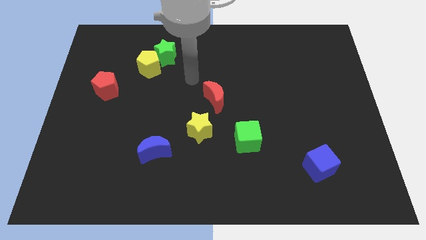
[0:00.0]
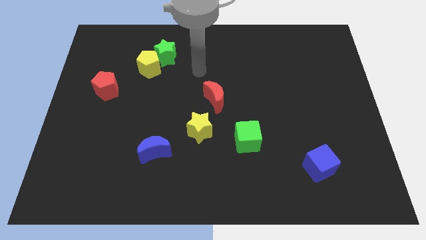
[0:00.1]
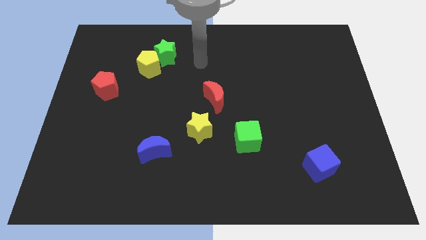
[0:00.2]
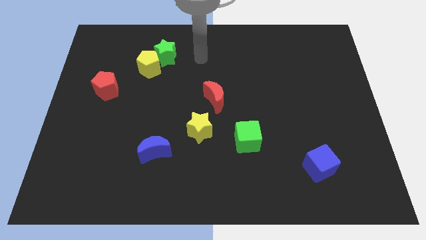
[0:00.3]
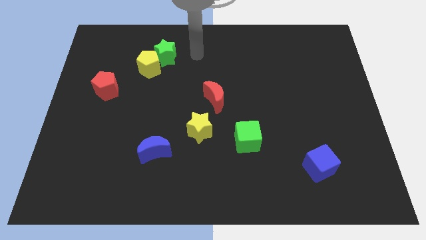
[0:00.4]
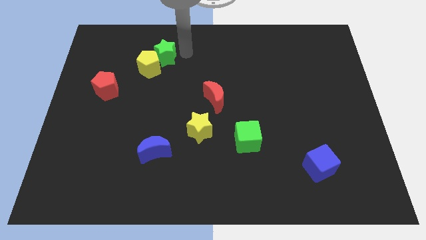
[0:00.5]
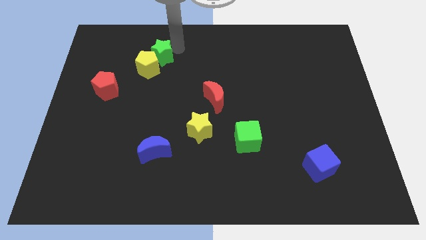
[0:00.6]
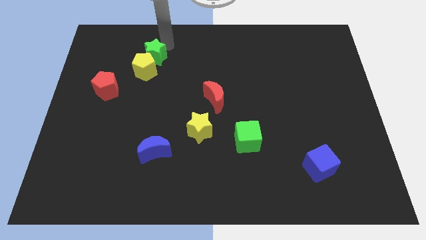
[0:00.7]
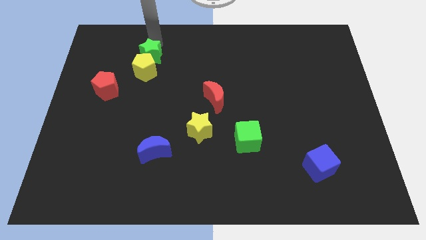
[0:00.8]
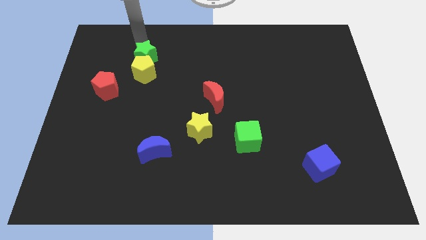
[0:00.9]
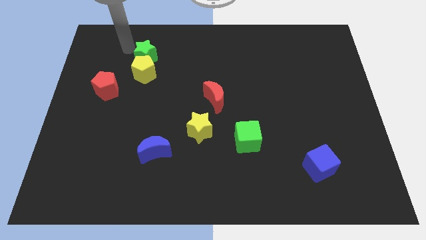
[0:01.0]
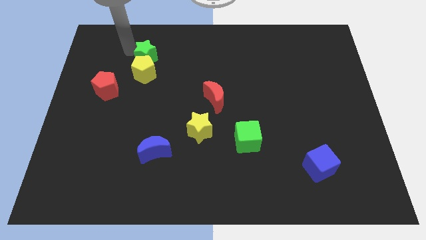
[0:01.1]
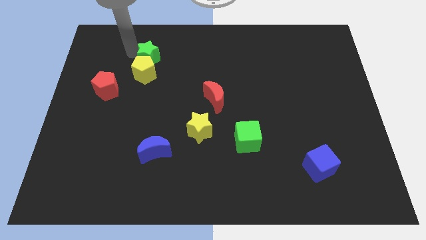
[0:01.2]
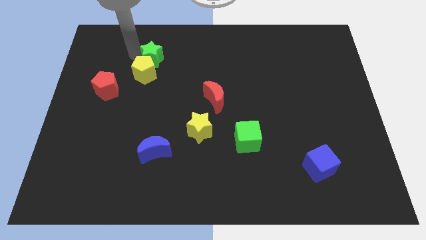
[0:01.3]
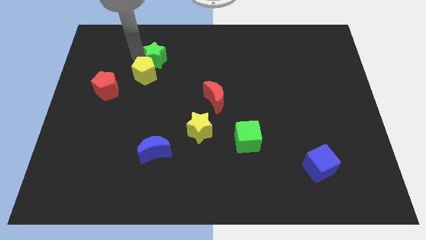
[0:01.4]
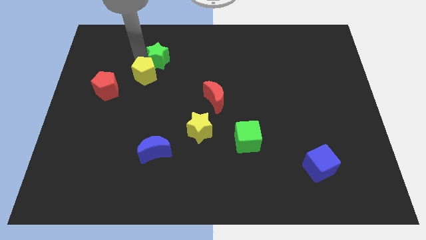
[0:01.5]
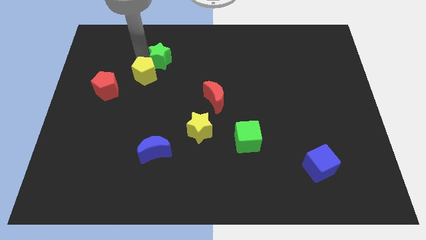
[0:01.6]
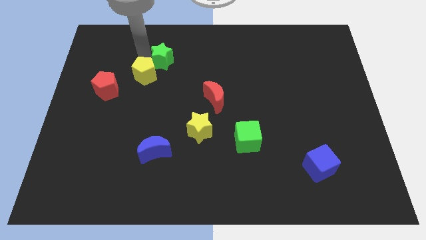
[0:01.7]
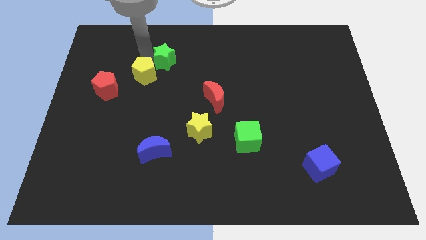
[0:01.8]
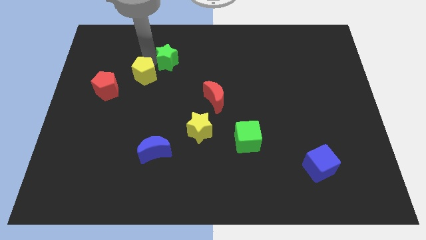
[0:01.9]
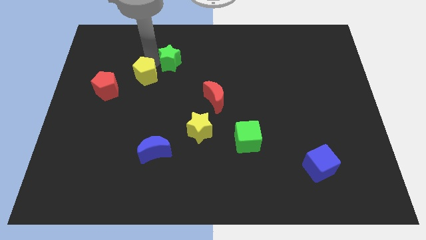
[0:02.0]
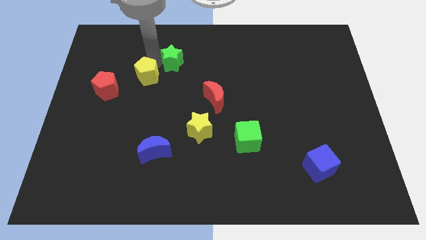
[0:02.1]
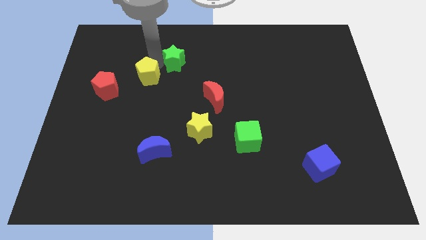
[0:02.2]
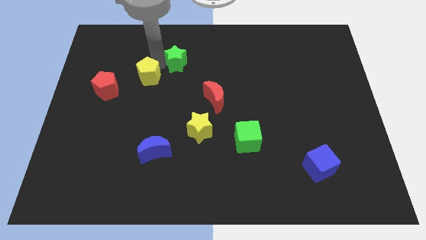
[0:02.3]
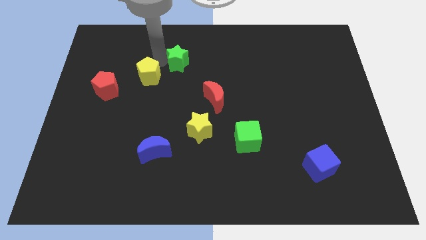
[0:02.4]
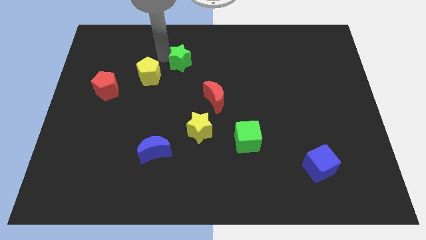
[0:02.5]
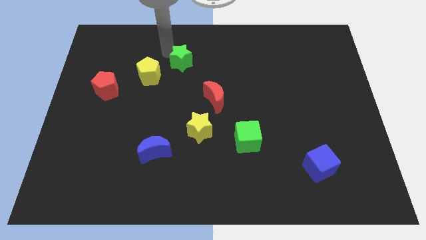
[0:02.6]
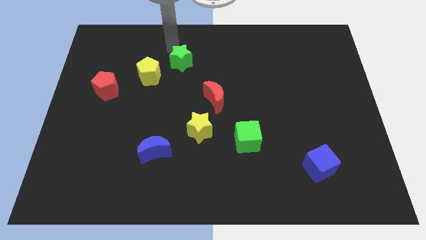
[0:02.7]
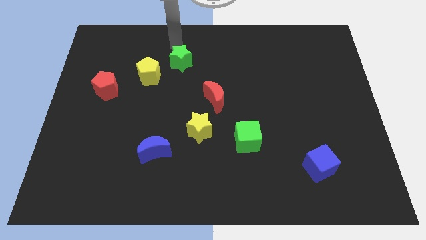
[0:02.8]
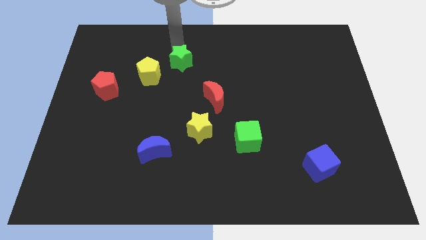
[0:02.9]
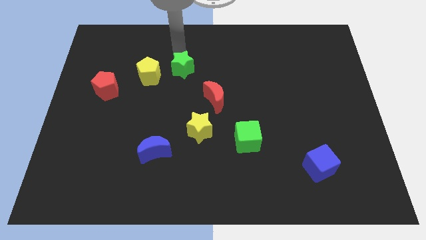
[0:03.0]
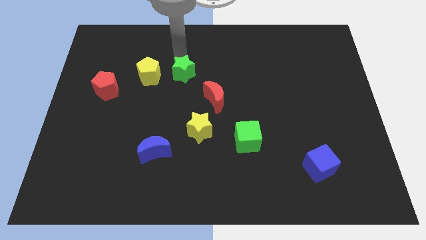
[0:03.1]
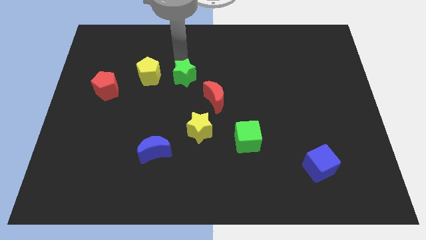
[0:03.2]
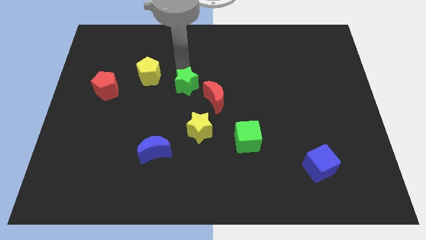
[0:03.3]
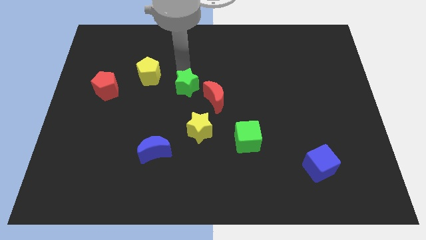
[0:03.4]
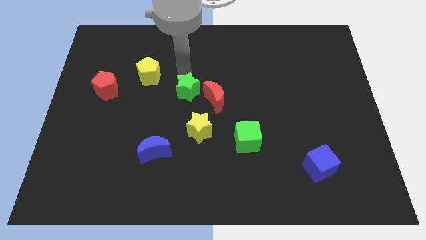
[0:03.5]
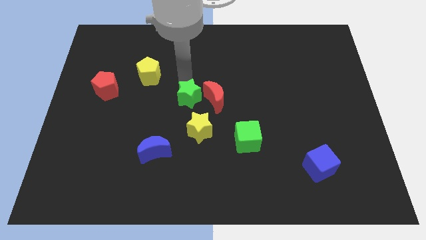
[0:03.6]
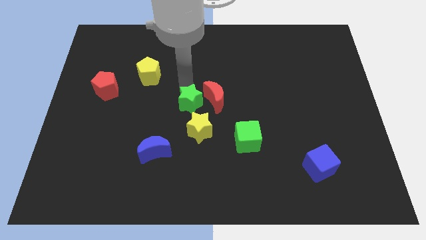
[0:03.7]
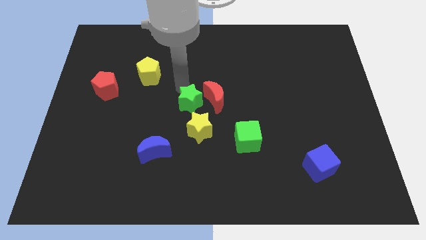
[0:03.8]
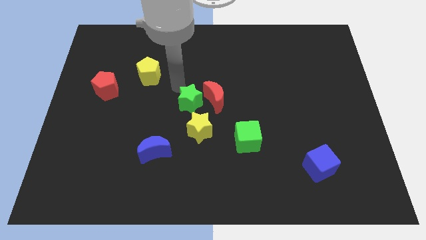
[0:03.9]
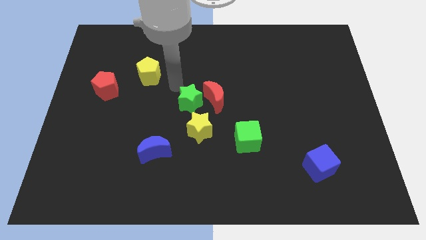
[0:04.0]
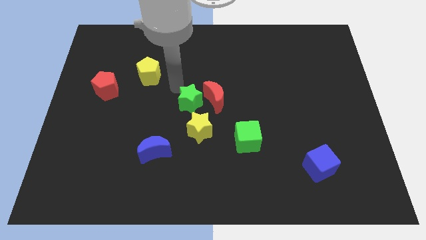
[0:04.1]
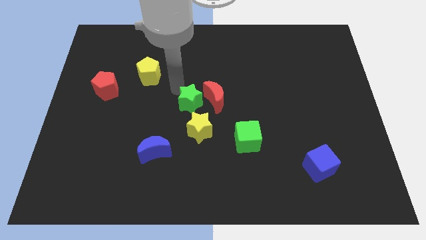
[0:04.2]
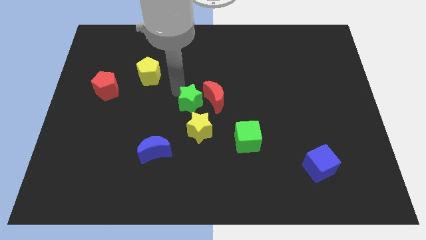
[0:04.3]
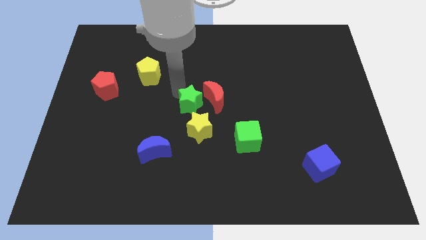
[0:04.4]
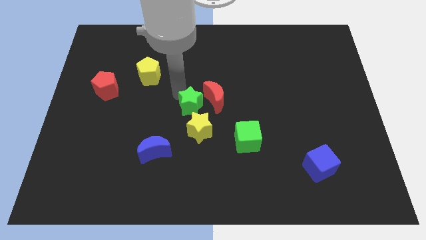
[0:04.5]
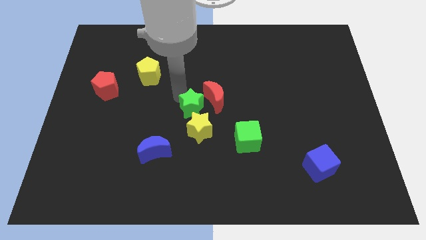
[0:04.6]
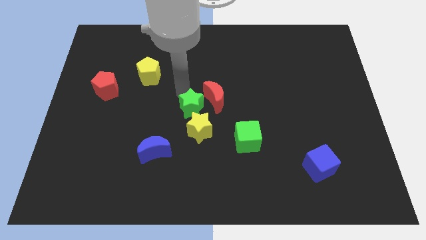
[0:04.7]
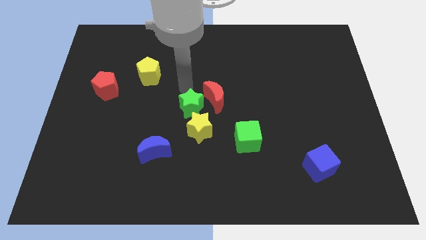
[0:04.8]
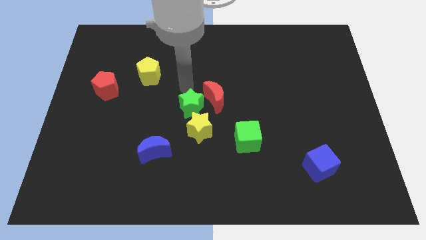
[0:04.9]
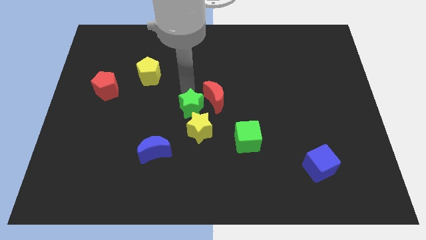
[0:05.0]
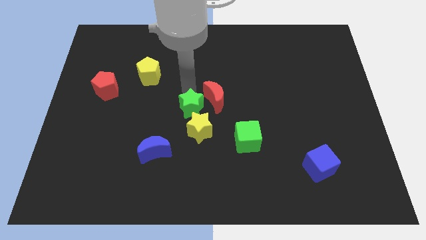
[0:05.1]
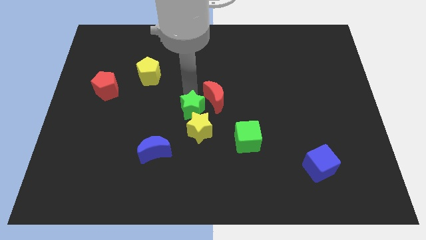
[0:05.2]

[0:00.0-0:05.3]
push the green star next to the yellow star

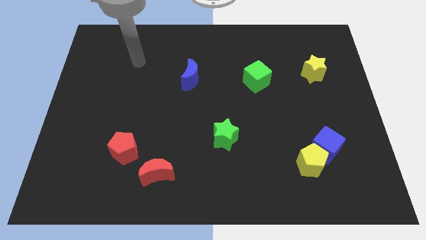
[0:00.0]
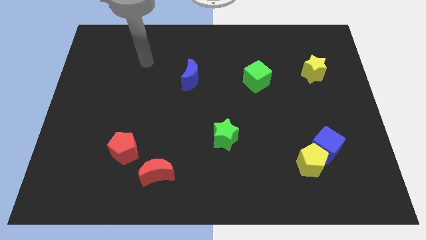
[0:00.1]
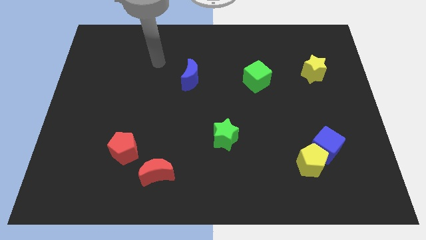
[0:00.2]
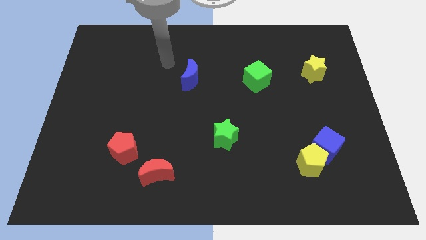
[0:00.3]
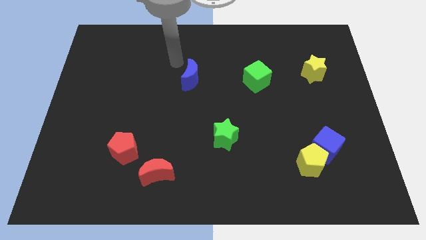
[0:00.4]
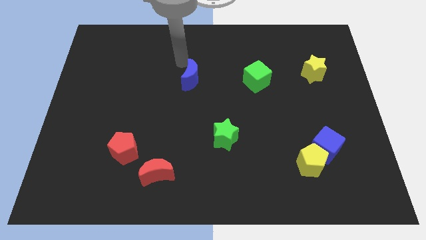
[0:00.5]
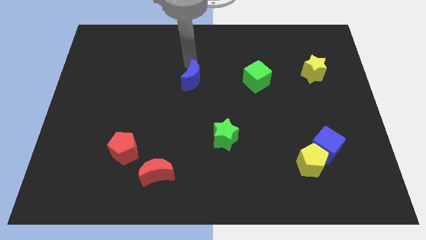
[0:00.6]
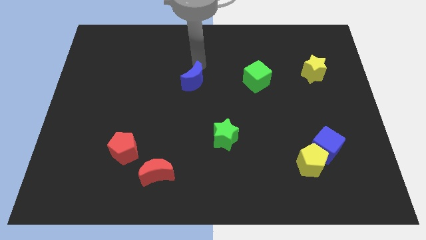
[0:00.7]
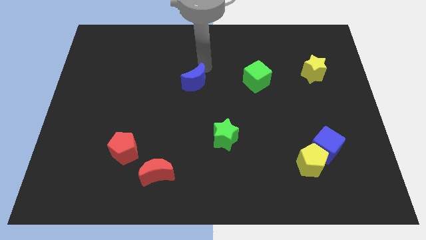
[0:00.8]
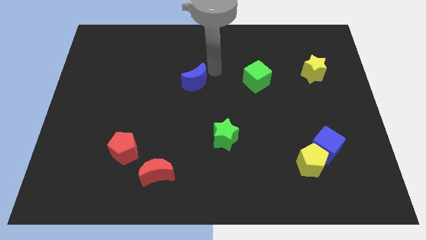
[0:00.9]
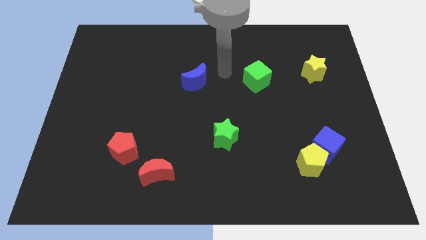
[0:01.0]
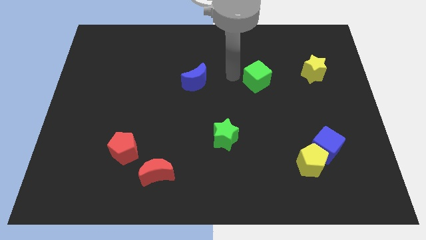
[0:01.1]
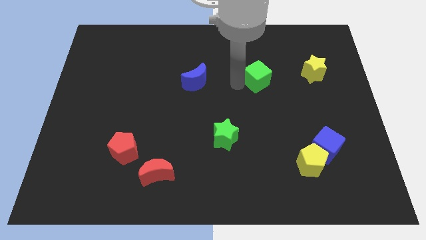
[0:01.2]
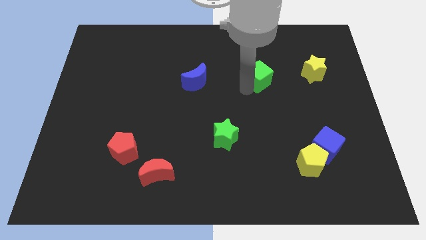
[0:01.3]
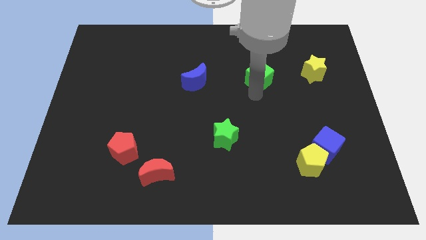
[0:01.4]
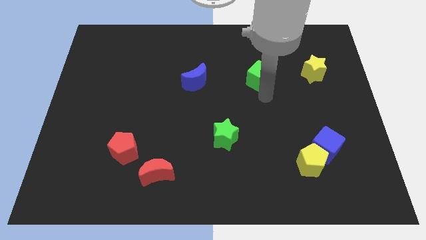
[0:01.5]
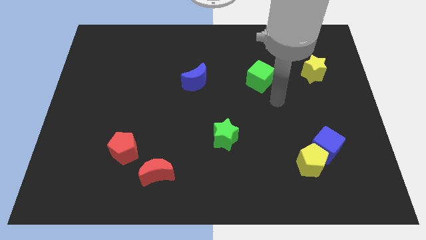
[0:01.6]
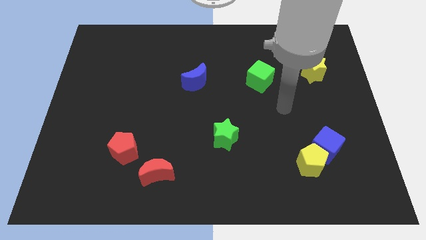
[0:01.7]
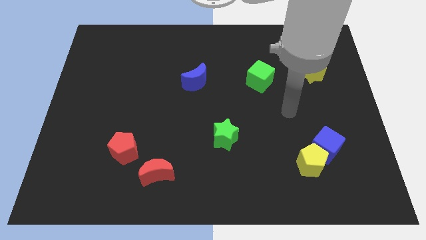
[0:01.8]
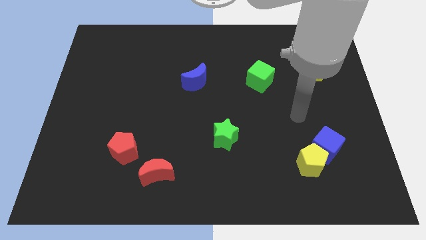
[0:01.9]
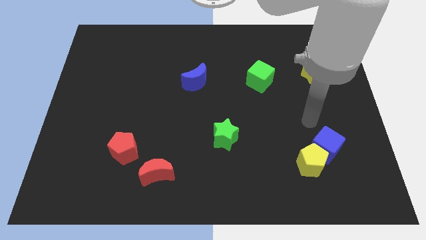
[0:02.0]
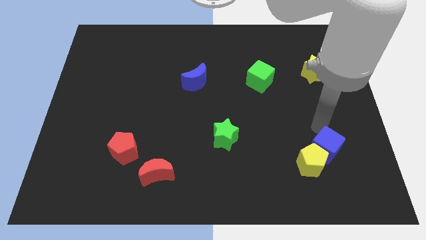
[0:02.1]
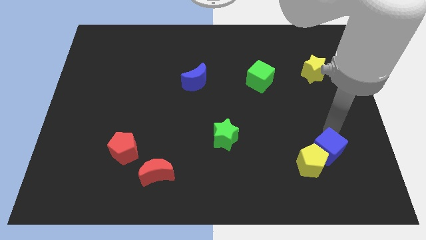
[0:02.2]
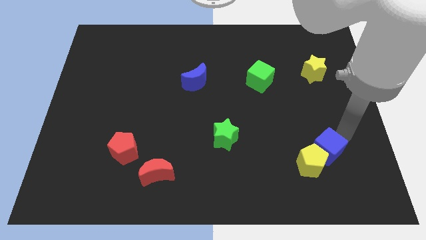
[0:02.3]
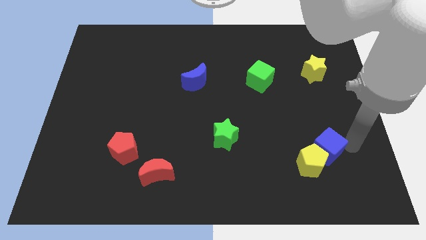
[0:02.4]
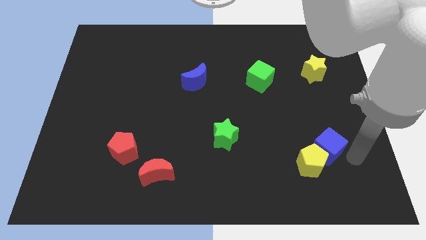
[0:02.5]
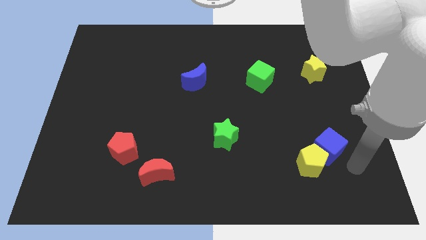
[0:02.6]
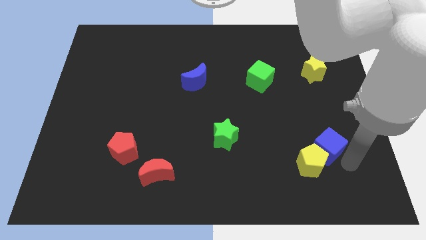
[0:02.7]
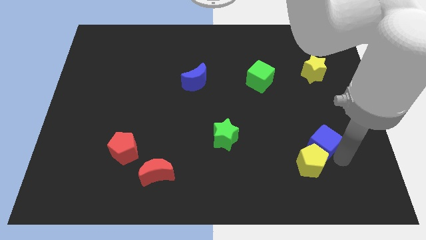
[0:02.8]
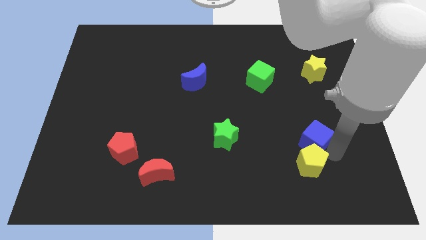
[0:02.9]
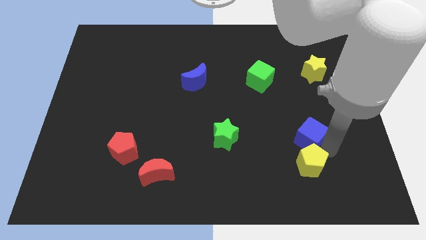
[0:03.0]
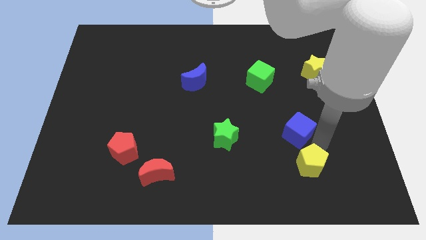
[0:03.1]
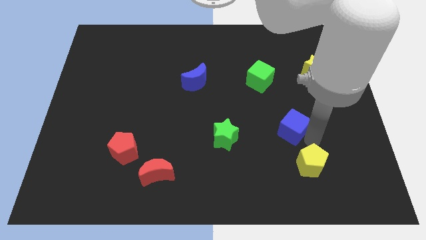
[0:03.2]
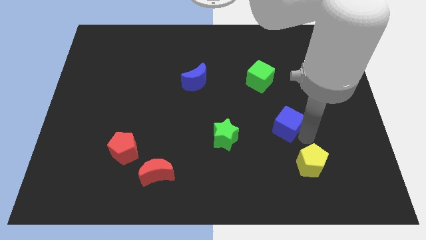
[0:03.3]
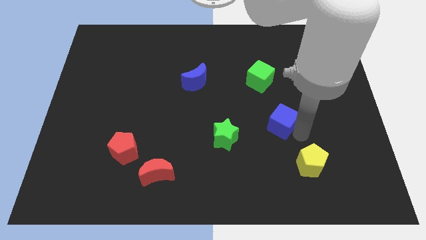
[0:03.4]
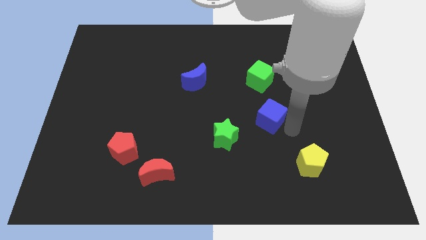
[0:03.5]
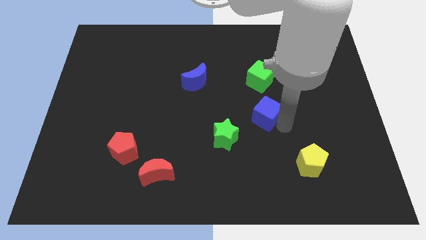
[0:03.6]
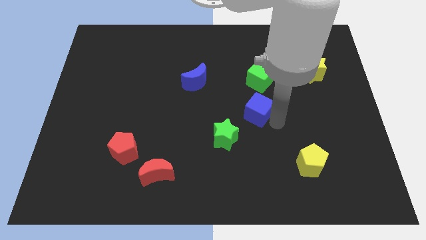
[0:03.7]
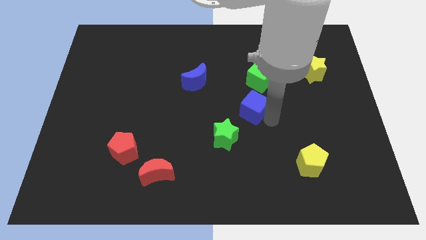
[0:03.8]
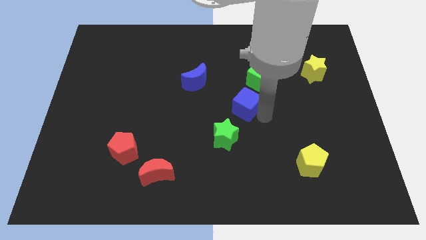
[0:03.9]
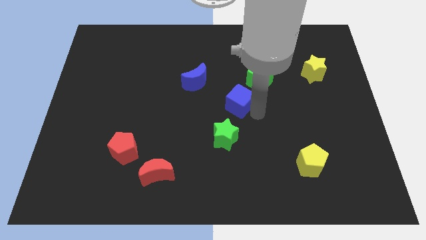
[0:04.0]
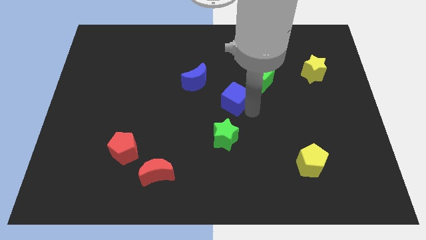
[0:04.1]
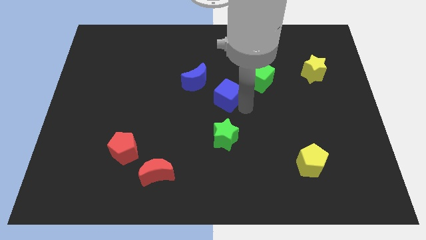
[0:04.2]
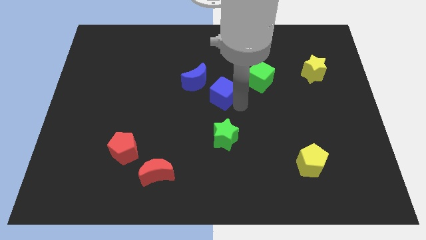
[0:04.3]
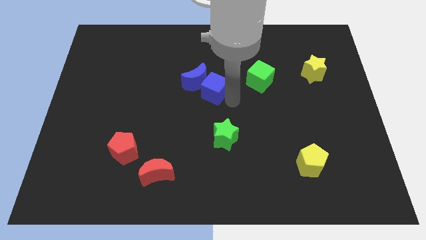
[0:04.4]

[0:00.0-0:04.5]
push the blue cube to the blue moon
